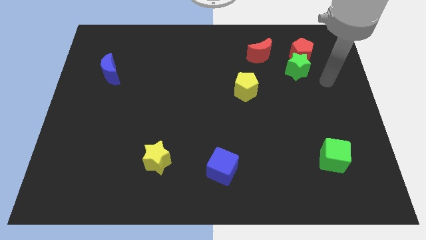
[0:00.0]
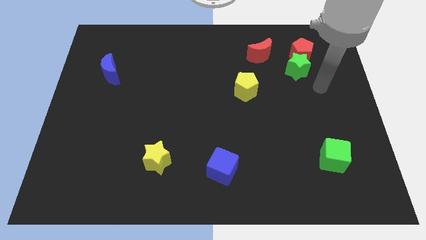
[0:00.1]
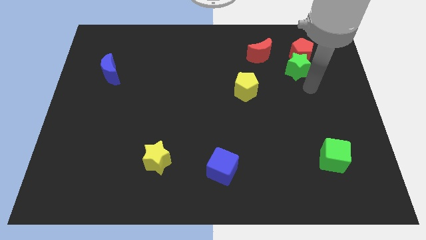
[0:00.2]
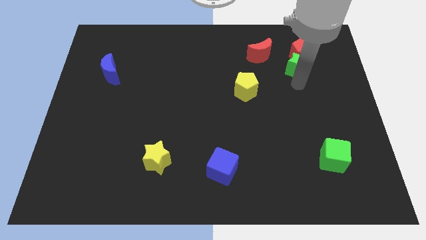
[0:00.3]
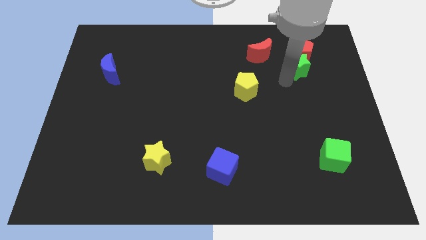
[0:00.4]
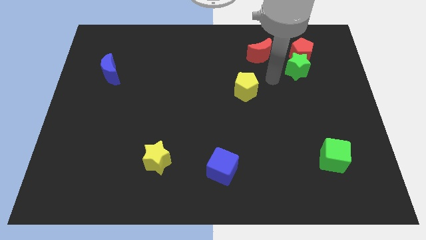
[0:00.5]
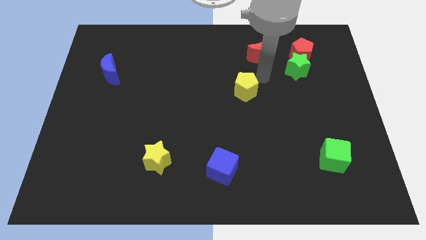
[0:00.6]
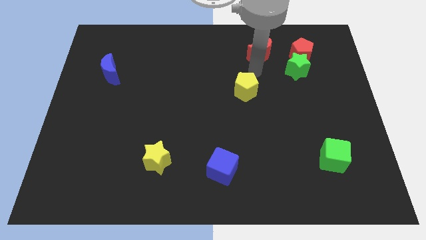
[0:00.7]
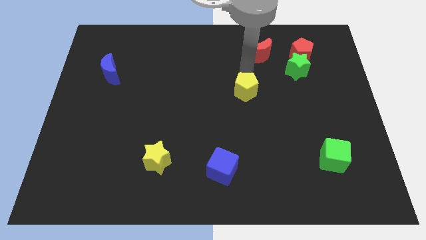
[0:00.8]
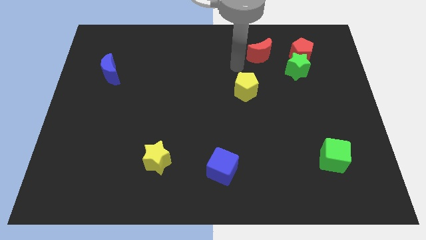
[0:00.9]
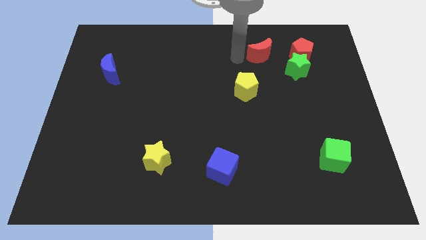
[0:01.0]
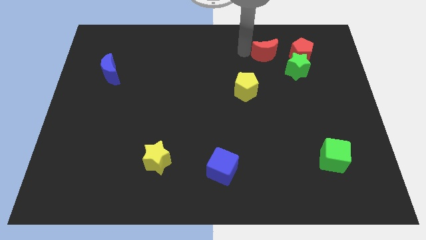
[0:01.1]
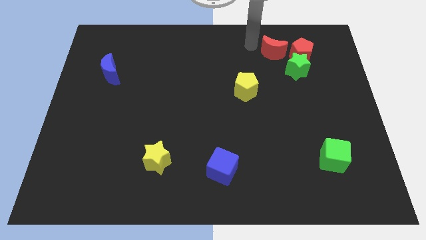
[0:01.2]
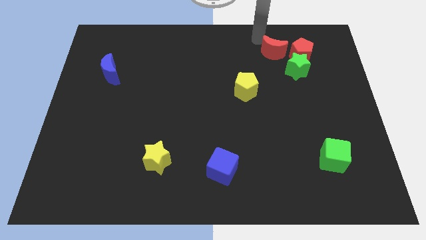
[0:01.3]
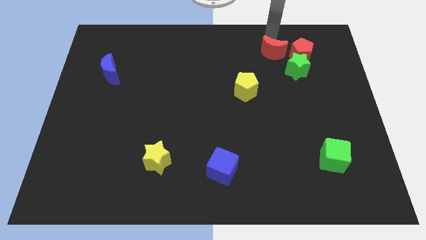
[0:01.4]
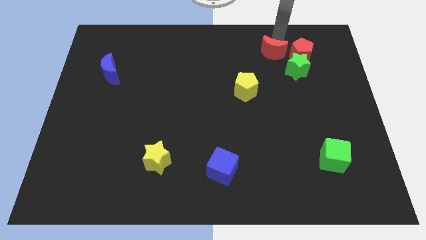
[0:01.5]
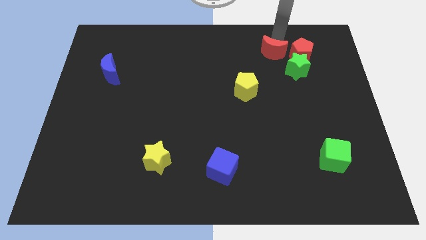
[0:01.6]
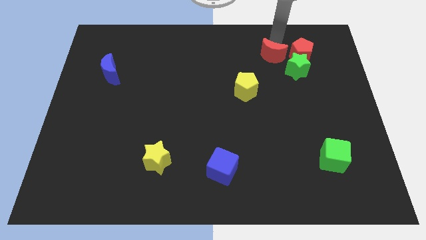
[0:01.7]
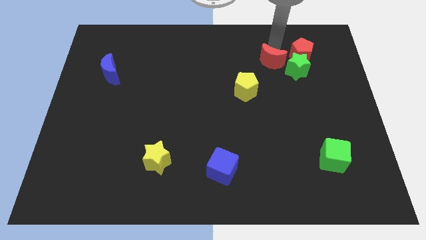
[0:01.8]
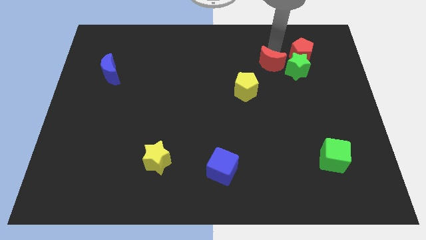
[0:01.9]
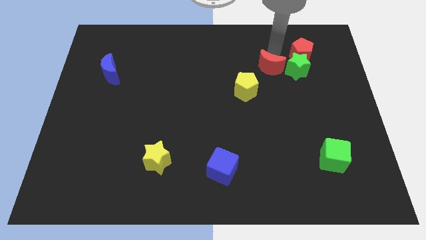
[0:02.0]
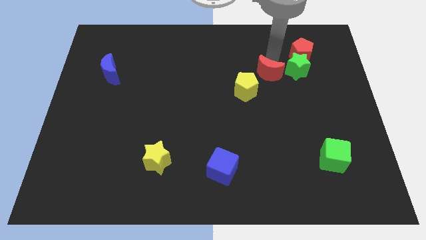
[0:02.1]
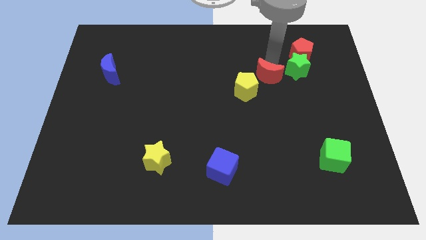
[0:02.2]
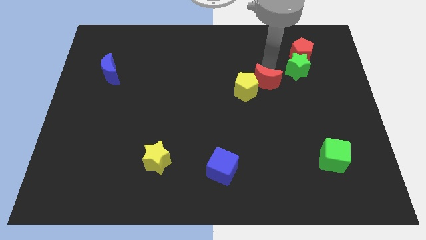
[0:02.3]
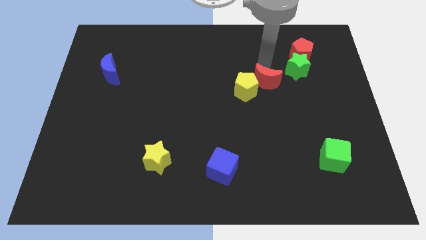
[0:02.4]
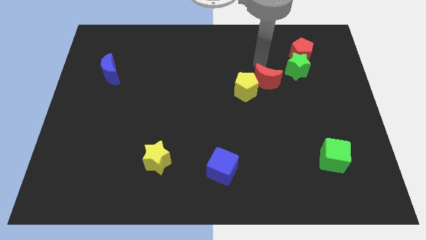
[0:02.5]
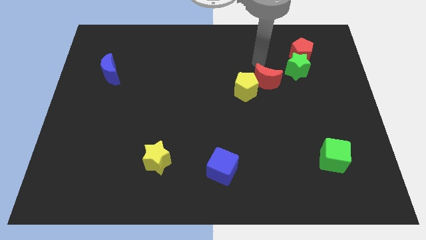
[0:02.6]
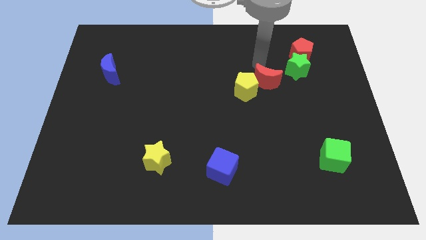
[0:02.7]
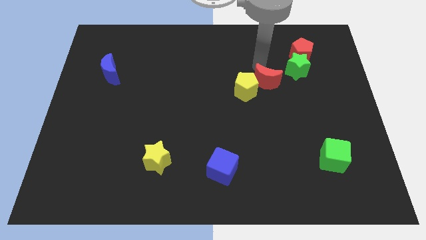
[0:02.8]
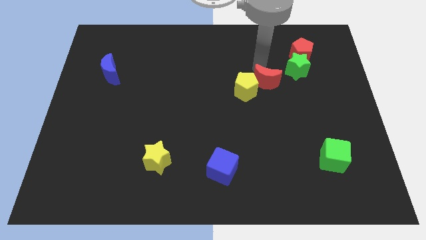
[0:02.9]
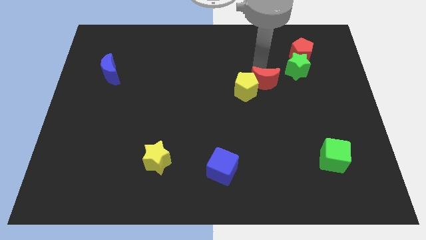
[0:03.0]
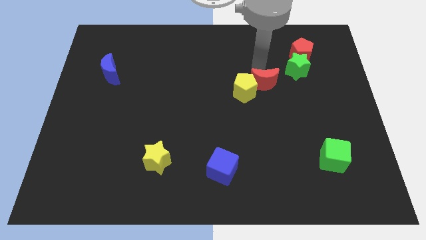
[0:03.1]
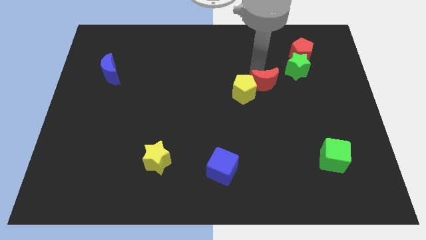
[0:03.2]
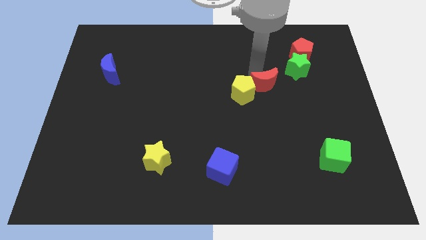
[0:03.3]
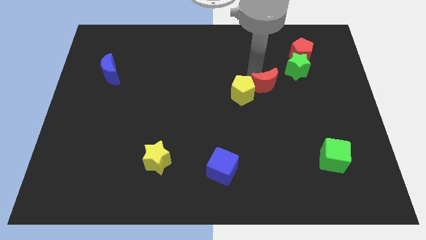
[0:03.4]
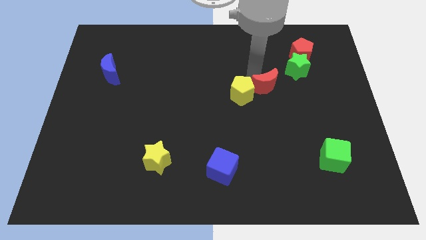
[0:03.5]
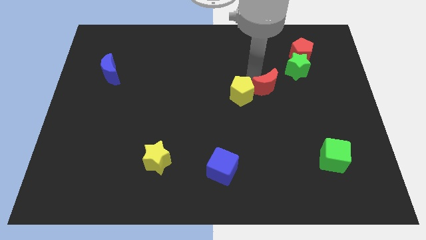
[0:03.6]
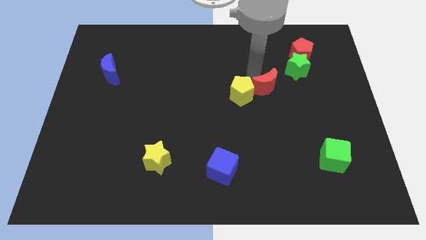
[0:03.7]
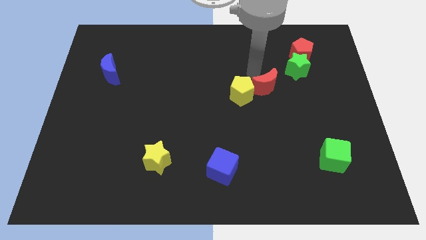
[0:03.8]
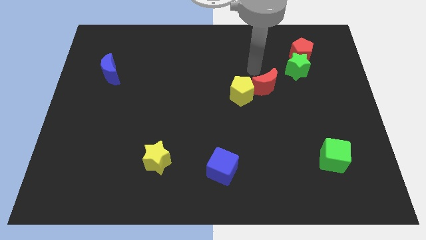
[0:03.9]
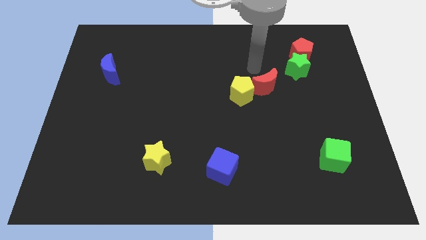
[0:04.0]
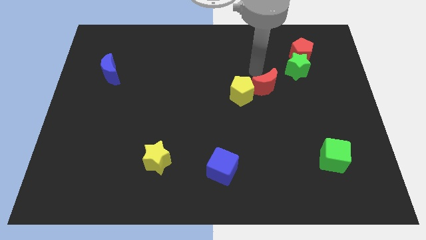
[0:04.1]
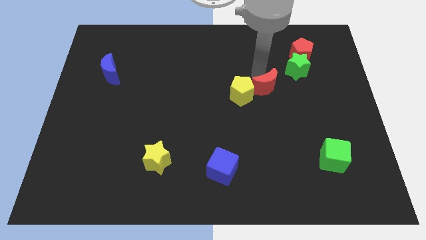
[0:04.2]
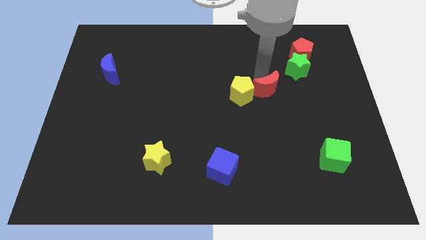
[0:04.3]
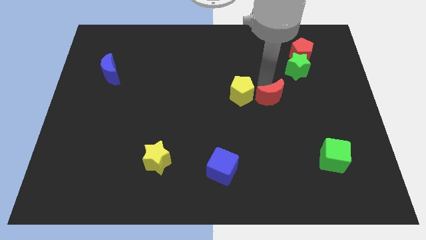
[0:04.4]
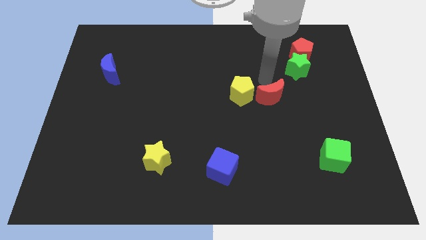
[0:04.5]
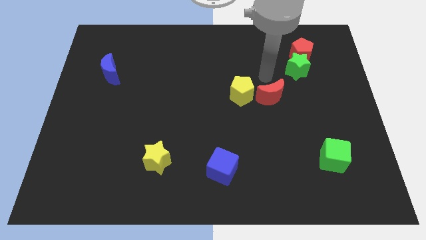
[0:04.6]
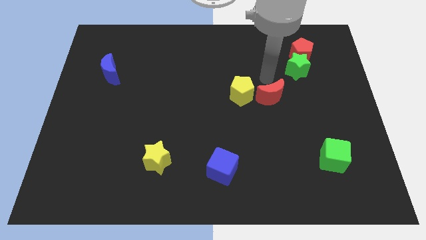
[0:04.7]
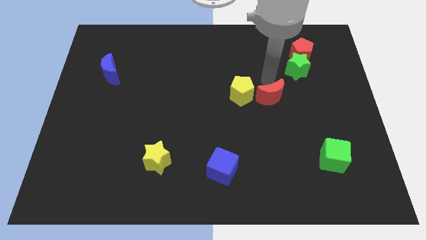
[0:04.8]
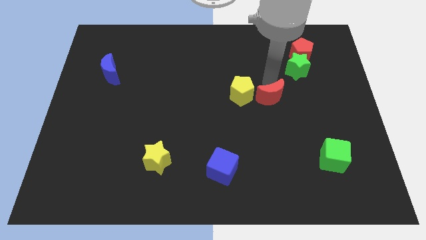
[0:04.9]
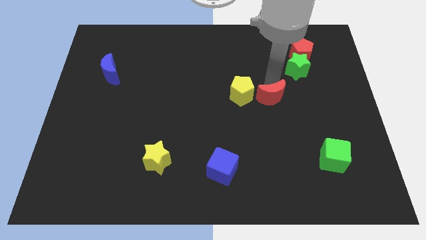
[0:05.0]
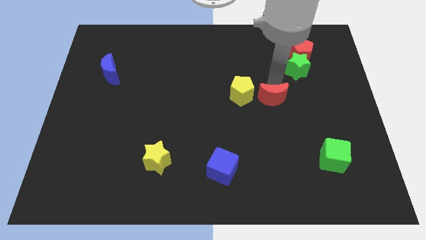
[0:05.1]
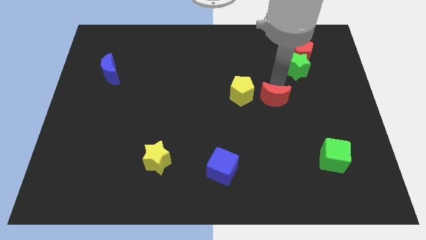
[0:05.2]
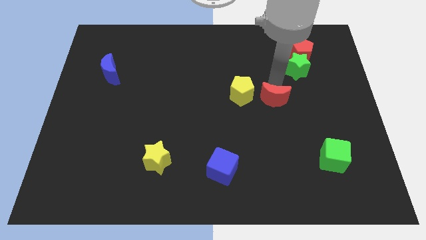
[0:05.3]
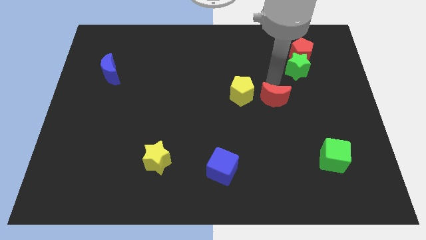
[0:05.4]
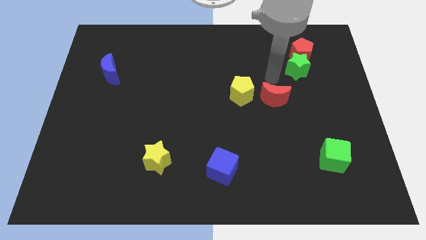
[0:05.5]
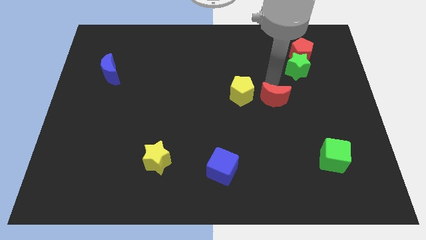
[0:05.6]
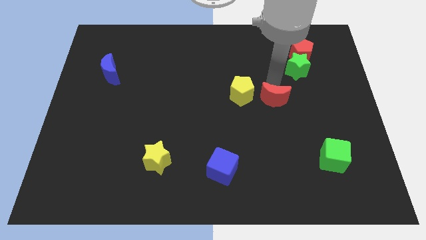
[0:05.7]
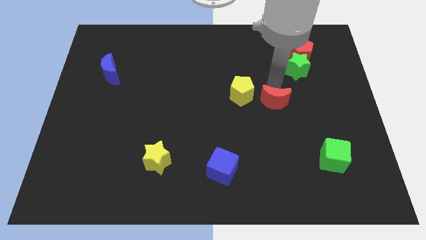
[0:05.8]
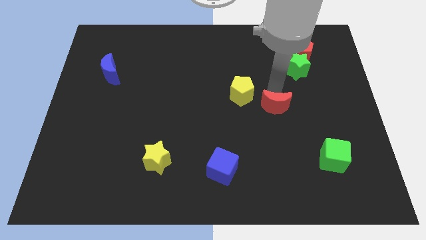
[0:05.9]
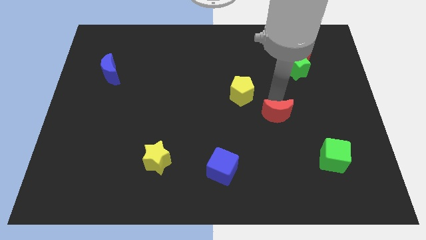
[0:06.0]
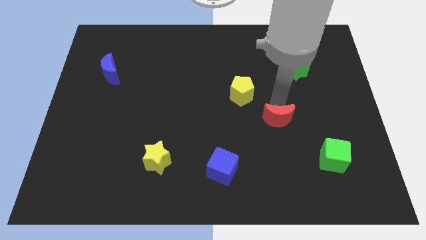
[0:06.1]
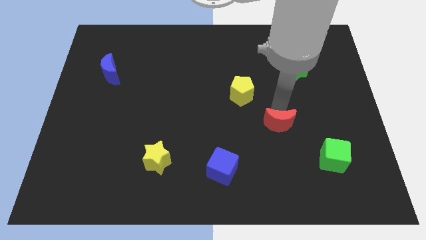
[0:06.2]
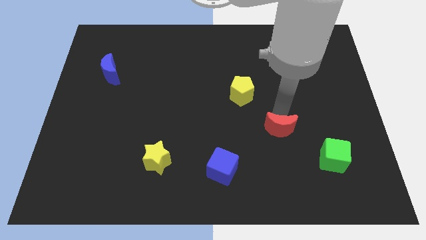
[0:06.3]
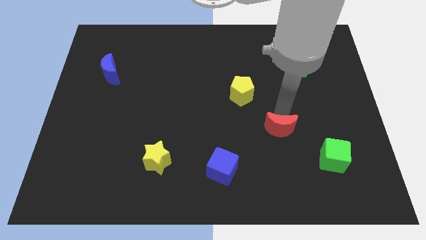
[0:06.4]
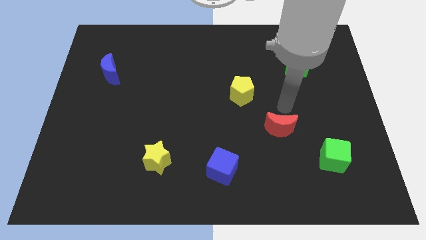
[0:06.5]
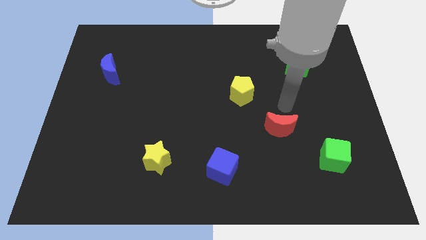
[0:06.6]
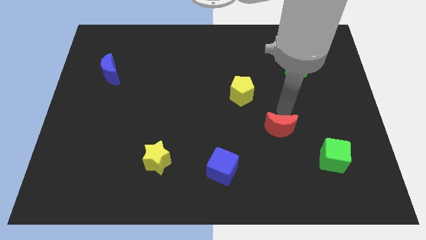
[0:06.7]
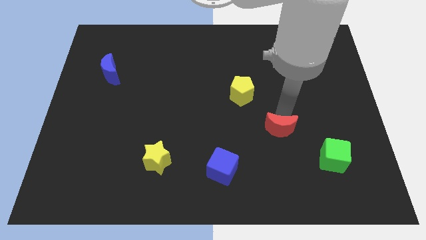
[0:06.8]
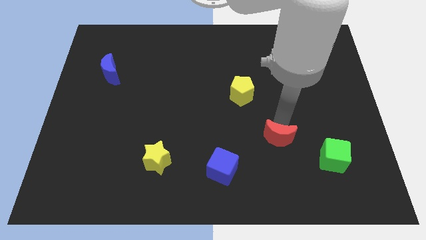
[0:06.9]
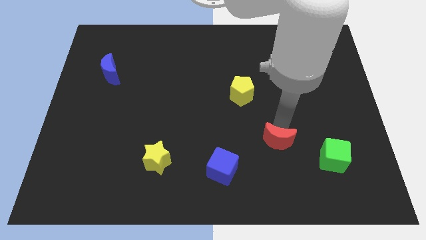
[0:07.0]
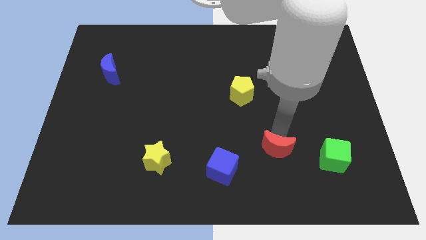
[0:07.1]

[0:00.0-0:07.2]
put the red moon right of the blue cube
